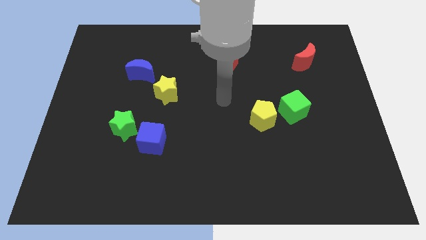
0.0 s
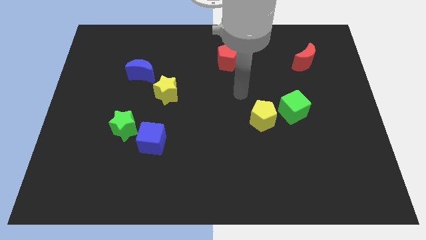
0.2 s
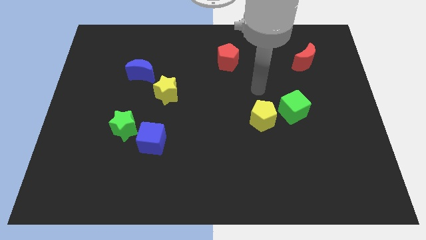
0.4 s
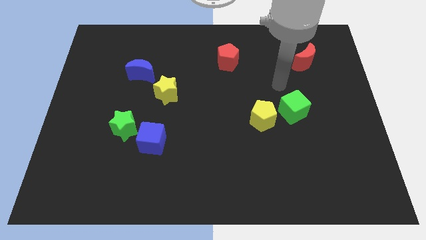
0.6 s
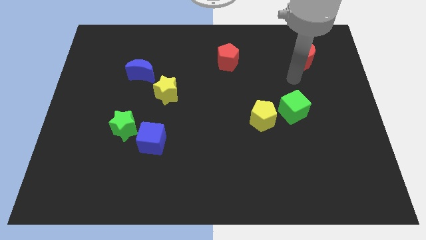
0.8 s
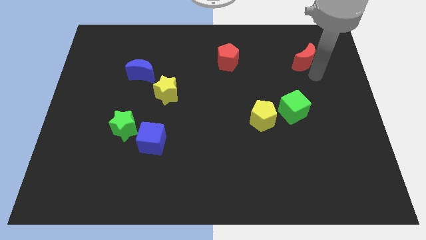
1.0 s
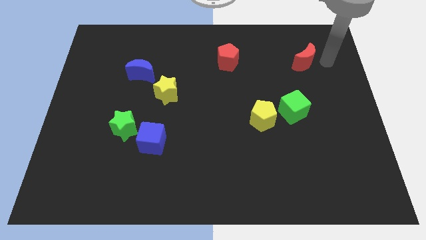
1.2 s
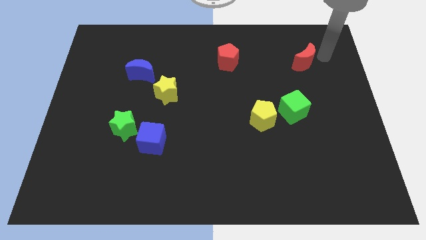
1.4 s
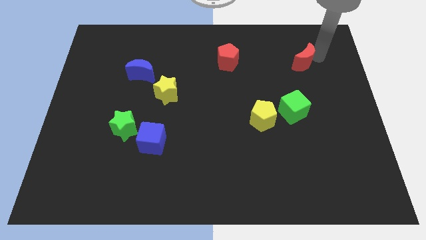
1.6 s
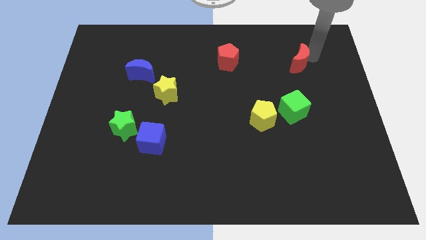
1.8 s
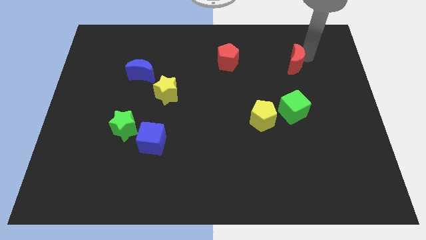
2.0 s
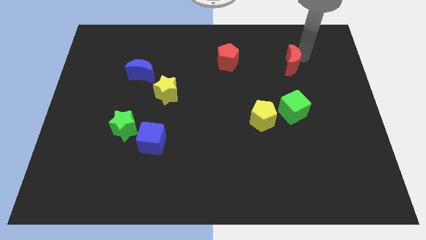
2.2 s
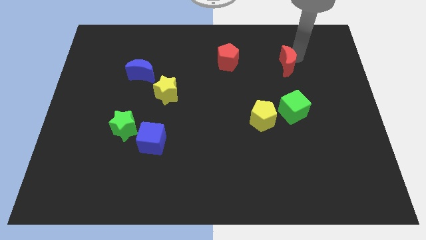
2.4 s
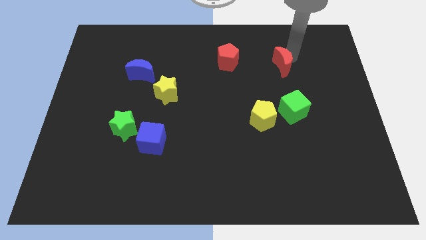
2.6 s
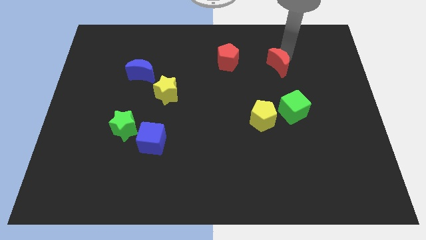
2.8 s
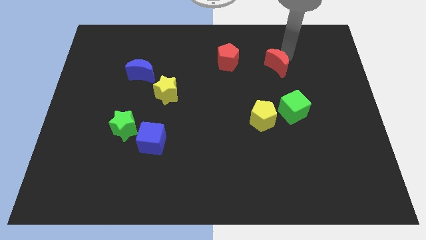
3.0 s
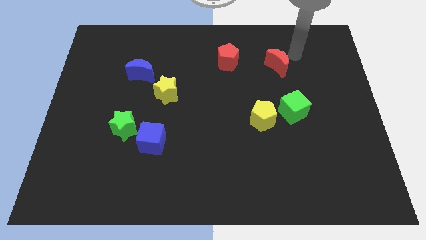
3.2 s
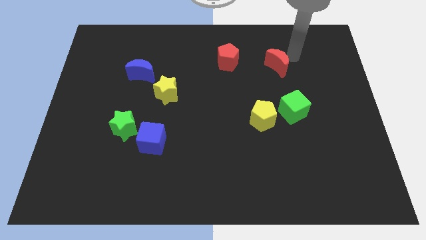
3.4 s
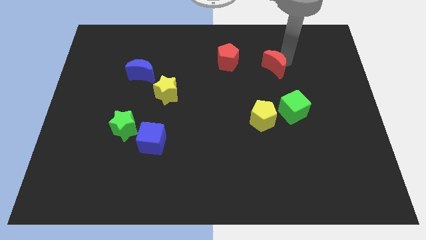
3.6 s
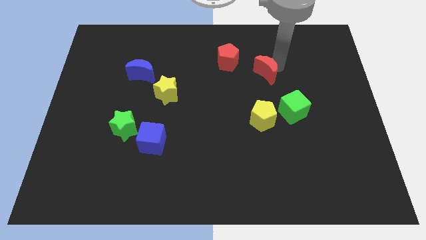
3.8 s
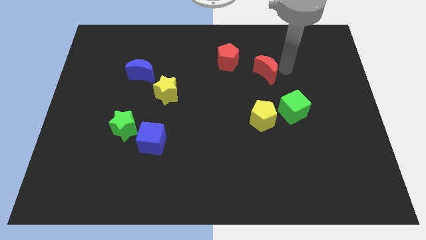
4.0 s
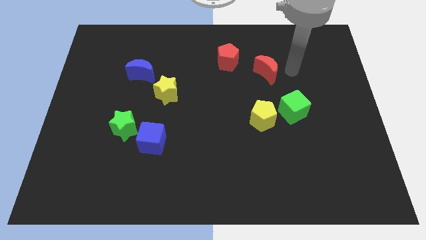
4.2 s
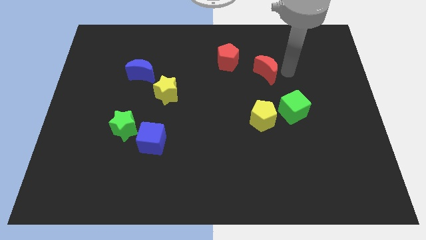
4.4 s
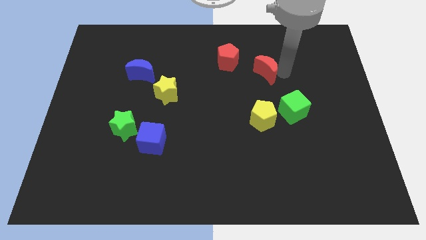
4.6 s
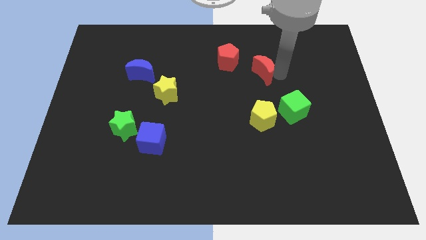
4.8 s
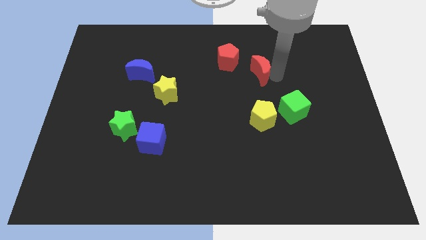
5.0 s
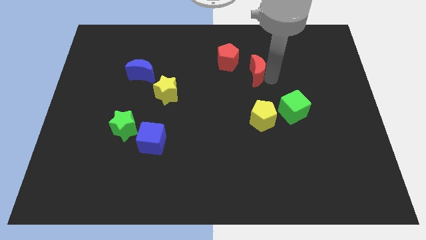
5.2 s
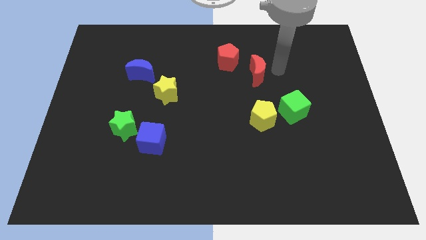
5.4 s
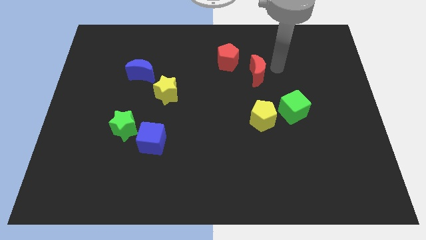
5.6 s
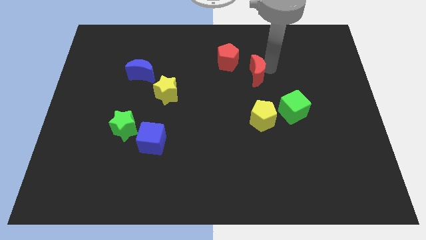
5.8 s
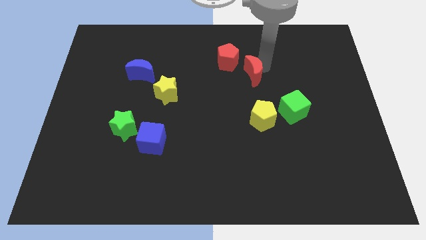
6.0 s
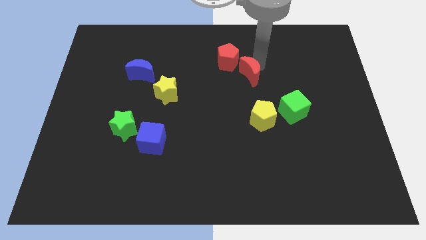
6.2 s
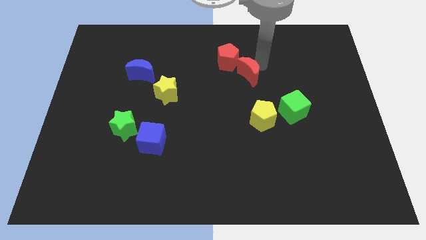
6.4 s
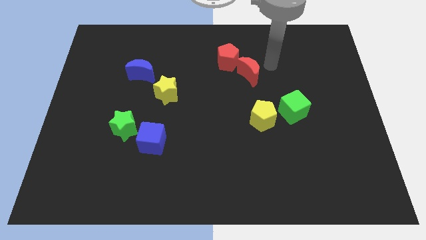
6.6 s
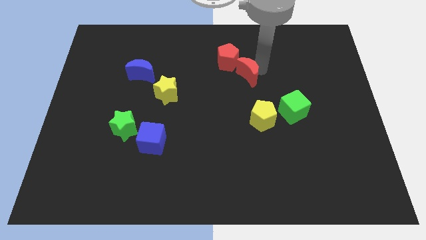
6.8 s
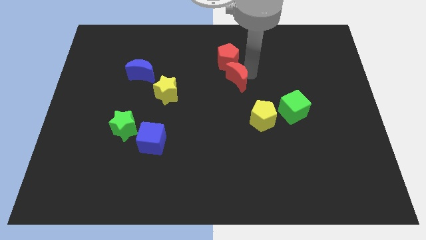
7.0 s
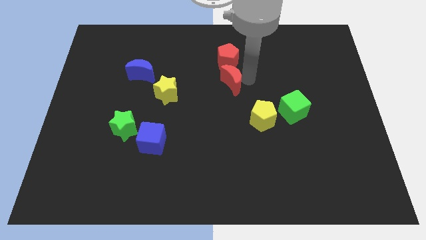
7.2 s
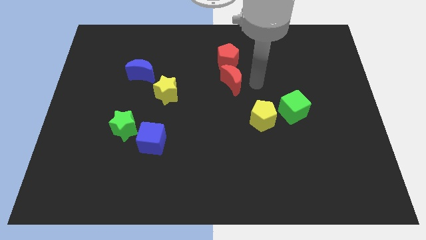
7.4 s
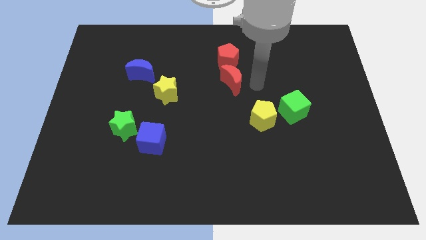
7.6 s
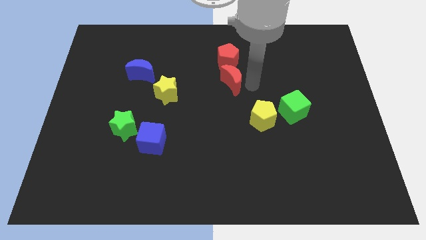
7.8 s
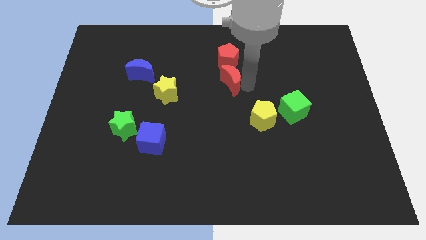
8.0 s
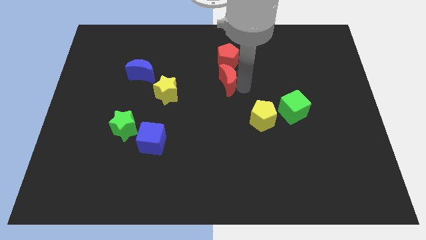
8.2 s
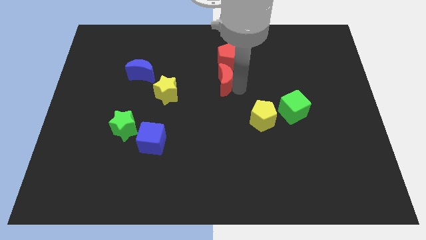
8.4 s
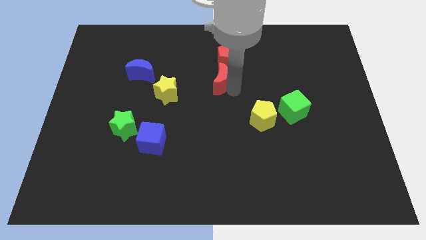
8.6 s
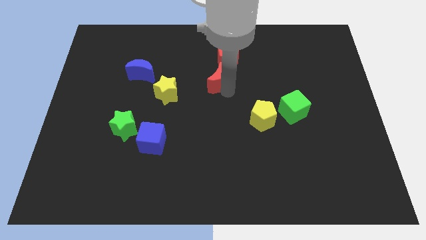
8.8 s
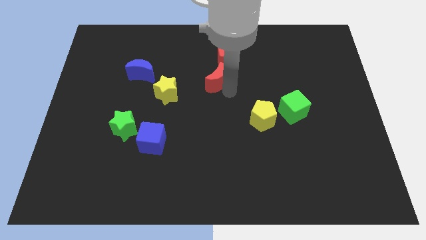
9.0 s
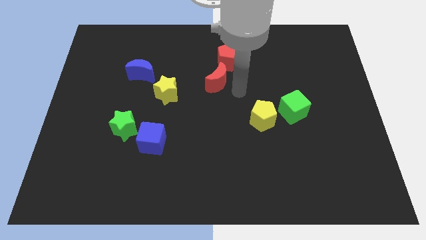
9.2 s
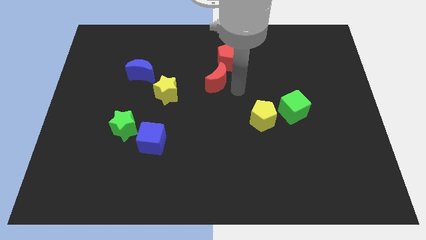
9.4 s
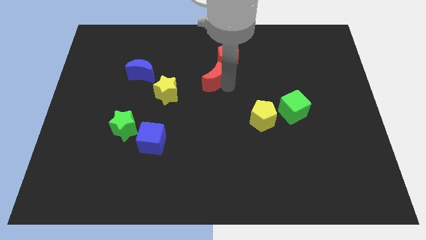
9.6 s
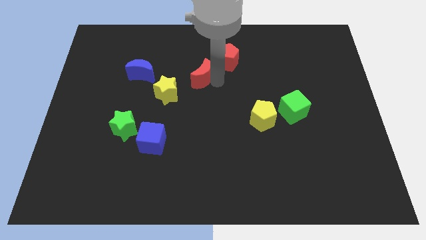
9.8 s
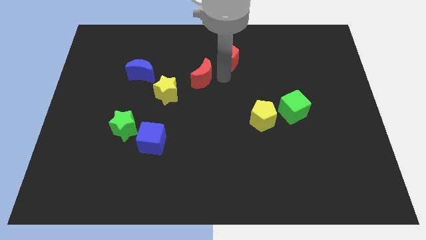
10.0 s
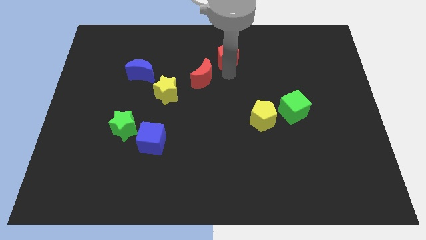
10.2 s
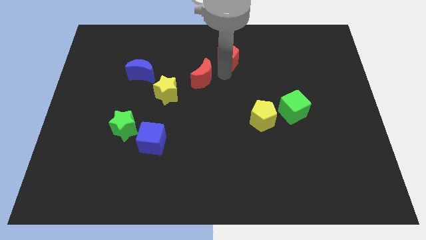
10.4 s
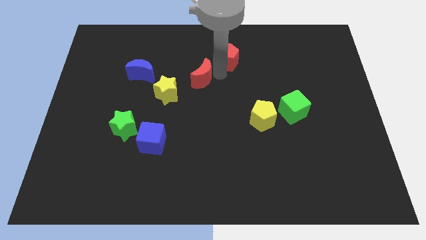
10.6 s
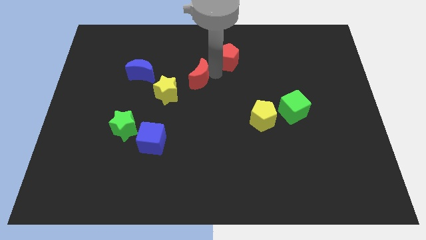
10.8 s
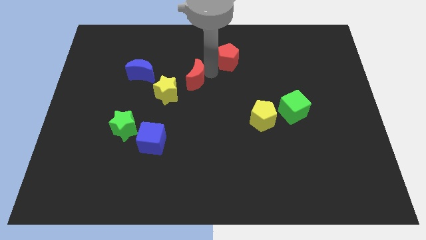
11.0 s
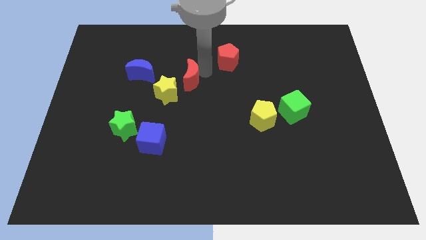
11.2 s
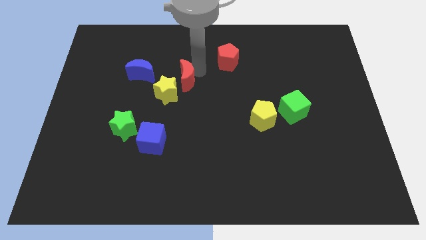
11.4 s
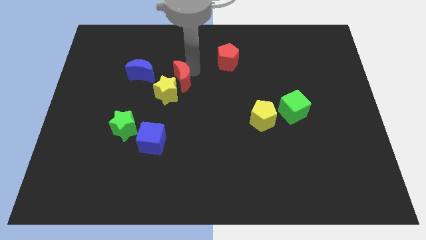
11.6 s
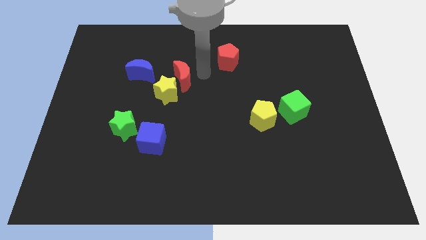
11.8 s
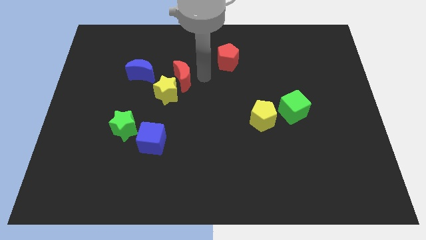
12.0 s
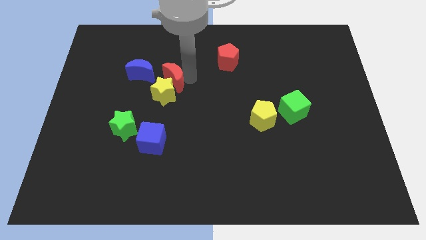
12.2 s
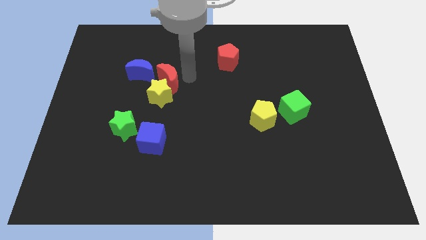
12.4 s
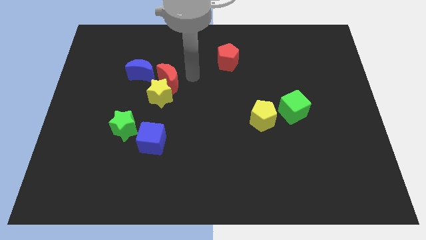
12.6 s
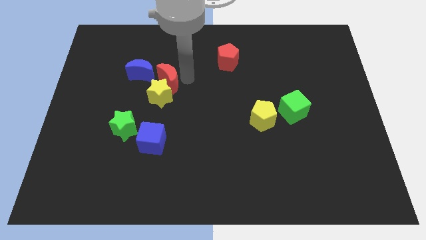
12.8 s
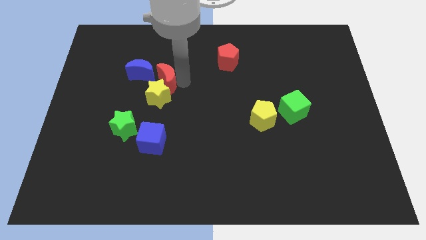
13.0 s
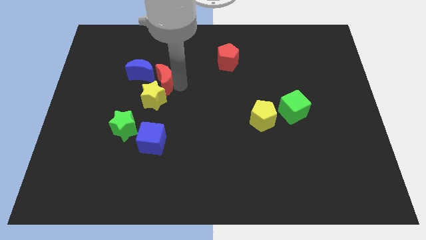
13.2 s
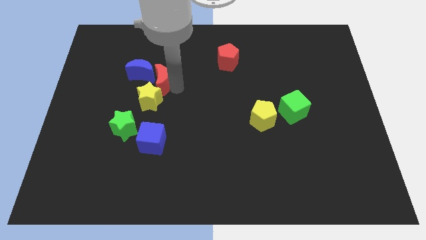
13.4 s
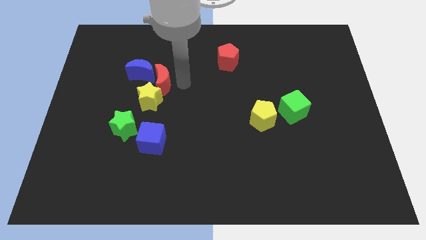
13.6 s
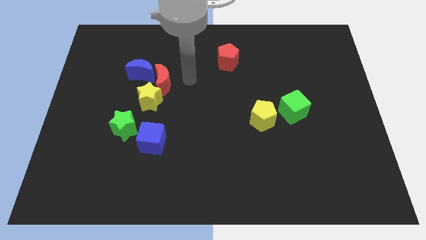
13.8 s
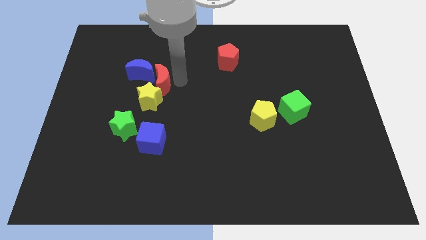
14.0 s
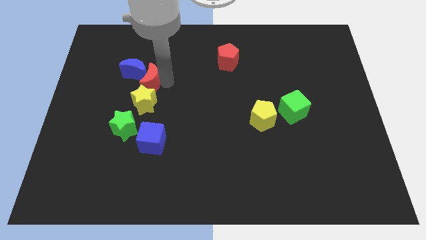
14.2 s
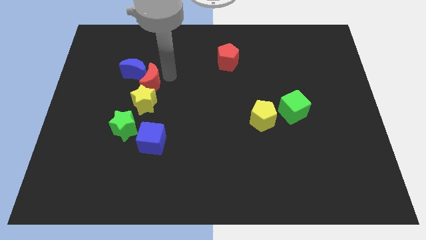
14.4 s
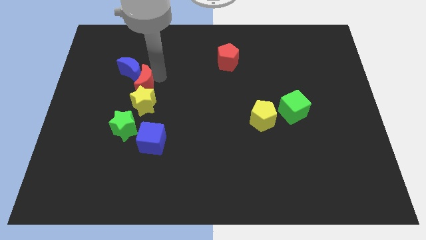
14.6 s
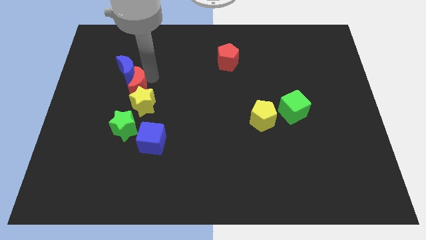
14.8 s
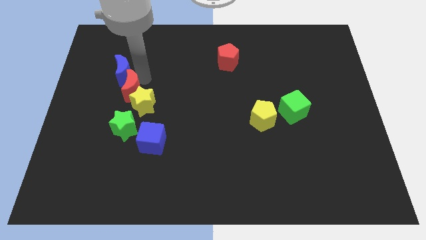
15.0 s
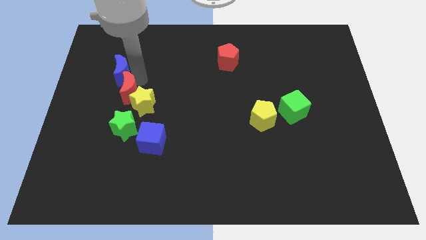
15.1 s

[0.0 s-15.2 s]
move the red moon to the left of the yellow star
